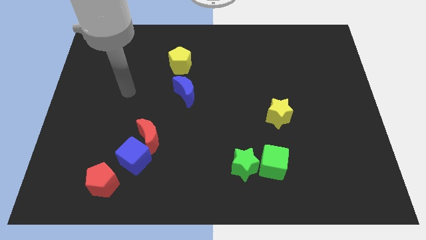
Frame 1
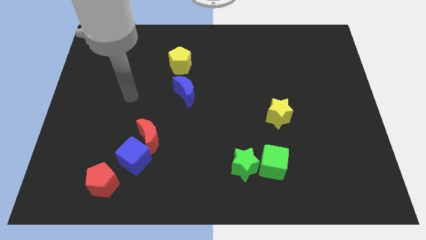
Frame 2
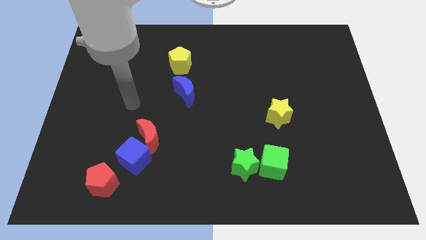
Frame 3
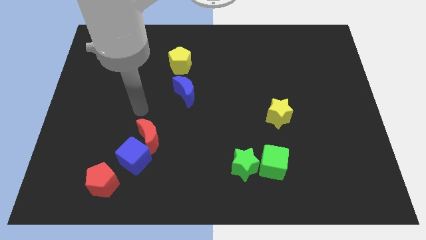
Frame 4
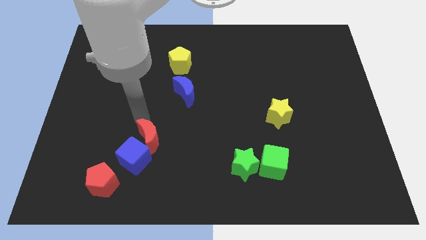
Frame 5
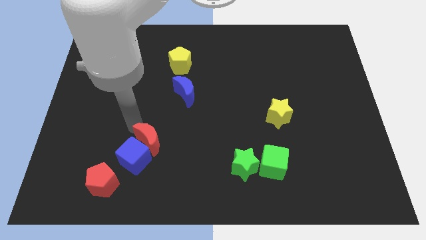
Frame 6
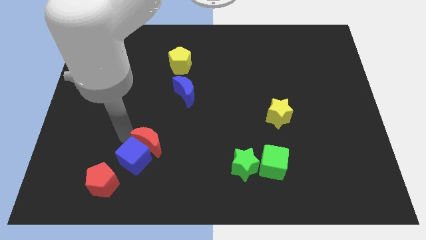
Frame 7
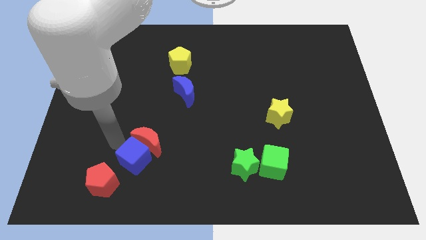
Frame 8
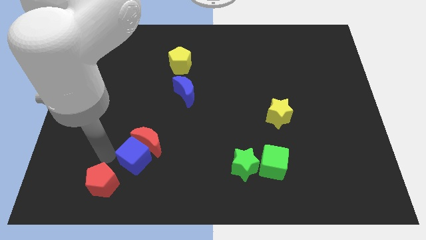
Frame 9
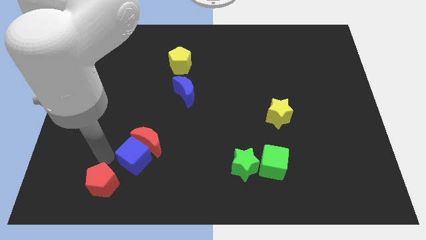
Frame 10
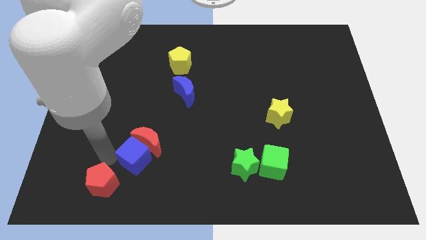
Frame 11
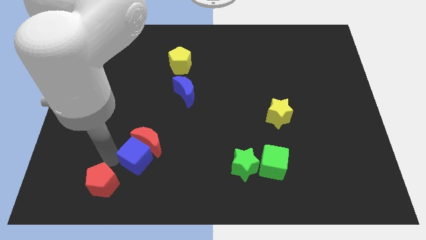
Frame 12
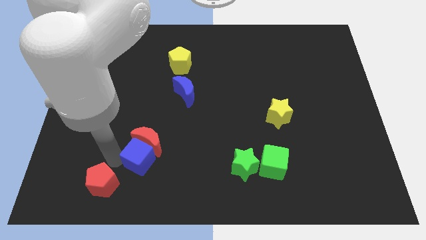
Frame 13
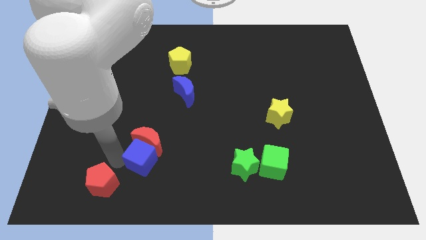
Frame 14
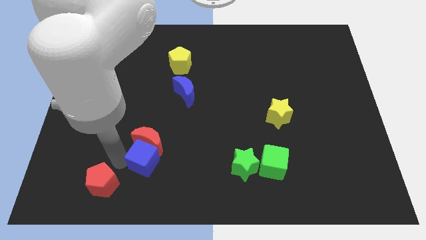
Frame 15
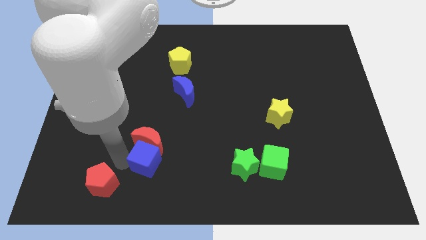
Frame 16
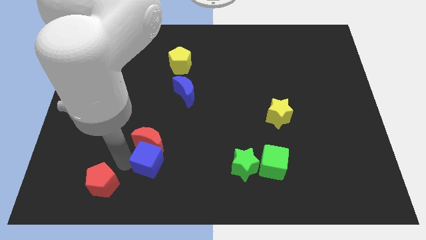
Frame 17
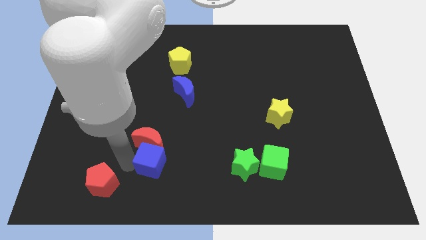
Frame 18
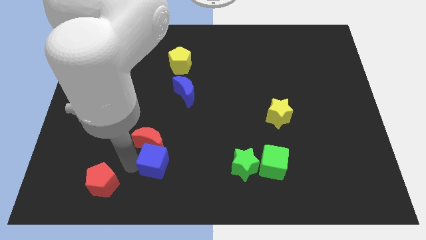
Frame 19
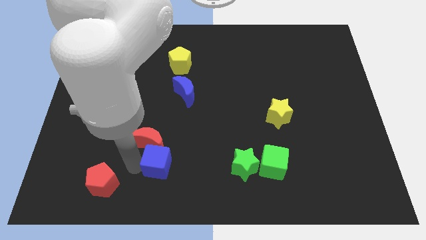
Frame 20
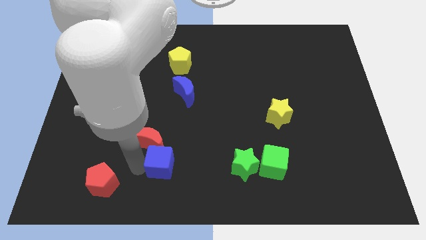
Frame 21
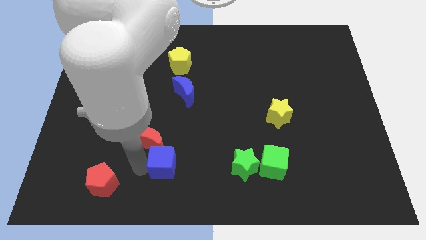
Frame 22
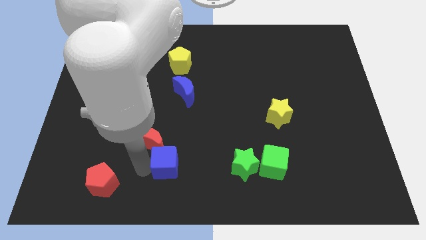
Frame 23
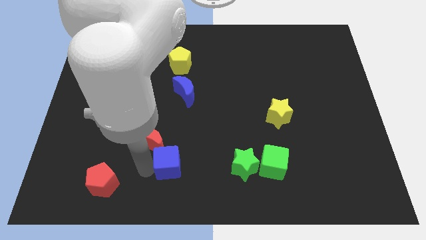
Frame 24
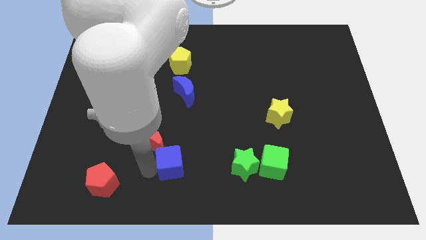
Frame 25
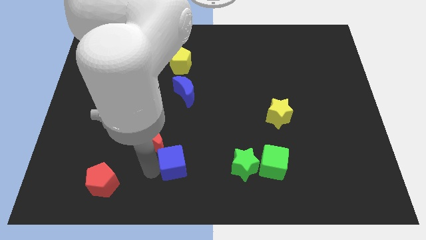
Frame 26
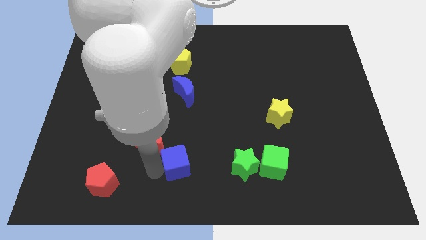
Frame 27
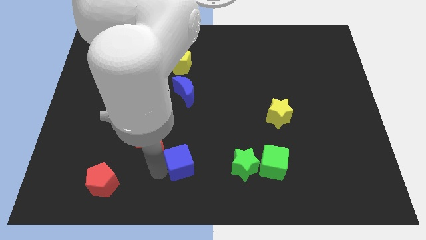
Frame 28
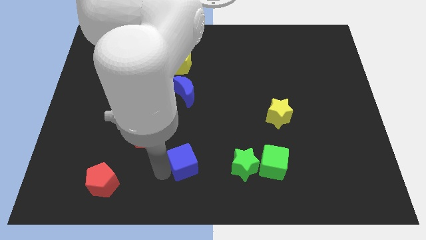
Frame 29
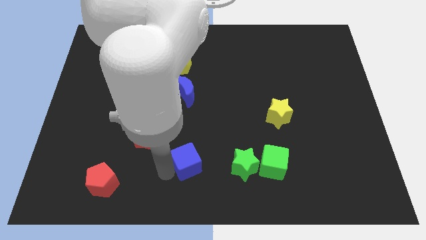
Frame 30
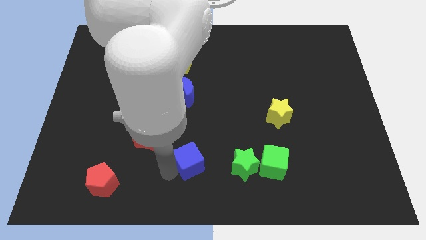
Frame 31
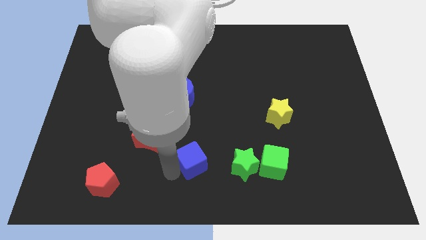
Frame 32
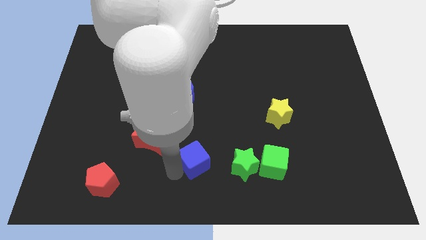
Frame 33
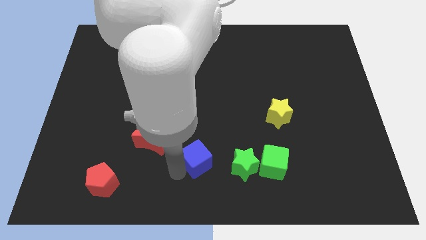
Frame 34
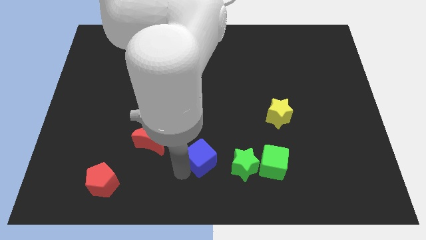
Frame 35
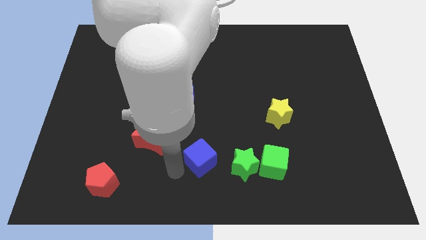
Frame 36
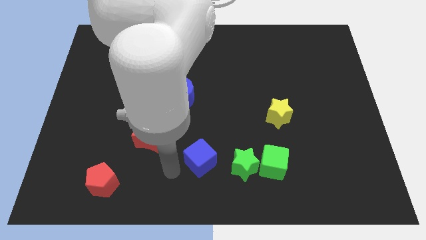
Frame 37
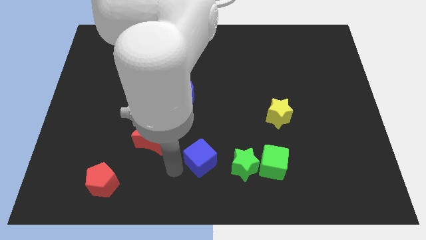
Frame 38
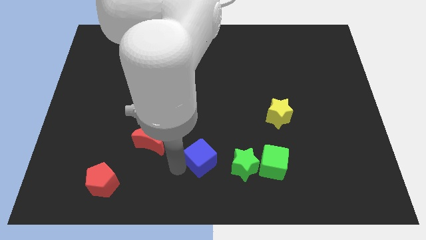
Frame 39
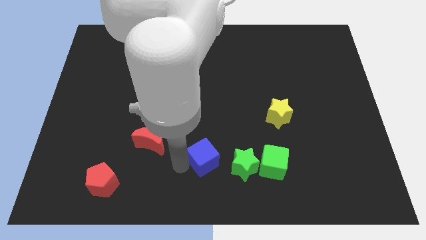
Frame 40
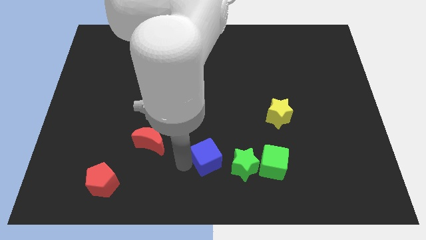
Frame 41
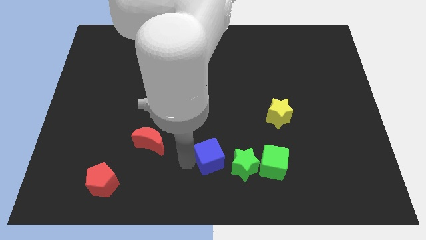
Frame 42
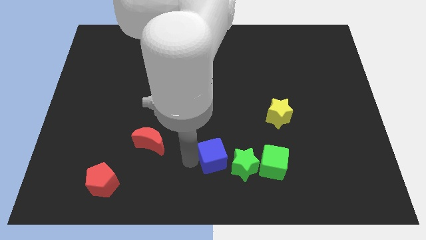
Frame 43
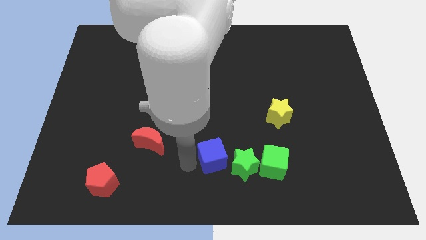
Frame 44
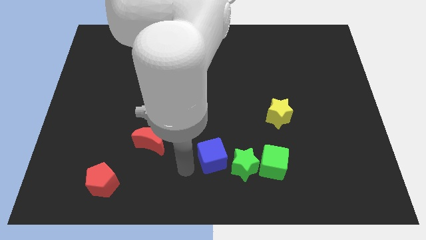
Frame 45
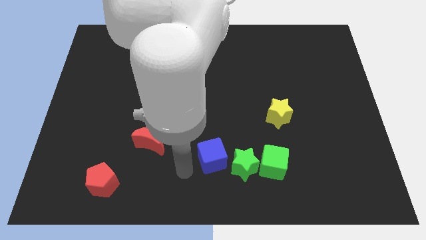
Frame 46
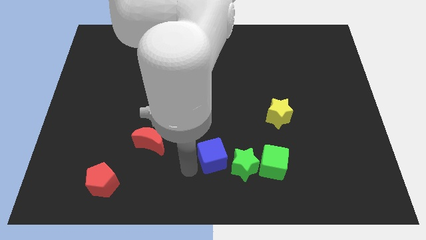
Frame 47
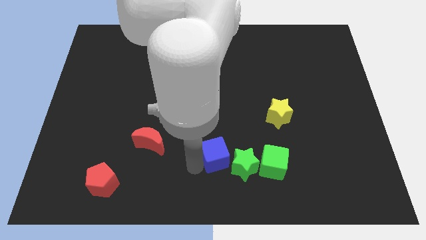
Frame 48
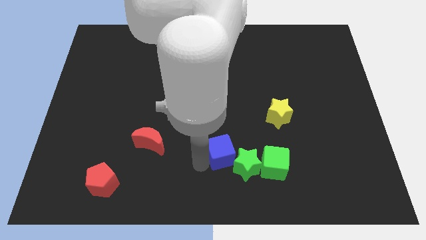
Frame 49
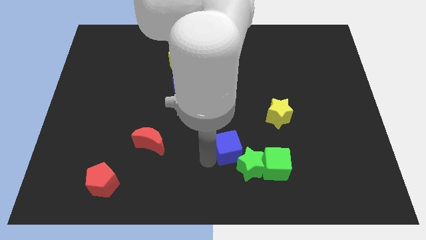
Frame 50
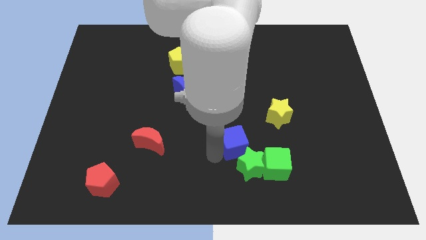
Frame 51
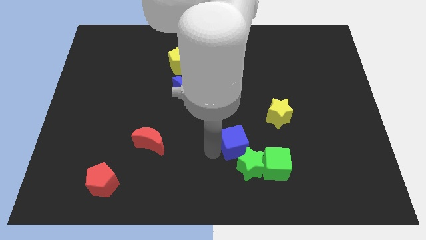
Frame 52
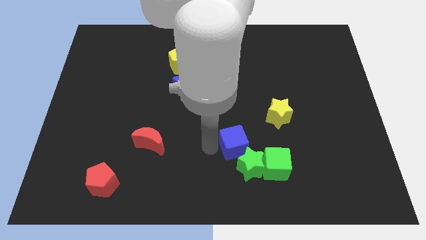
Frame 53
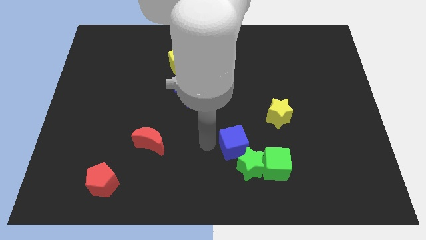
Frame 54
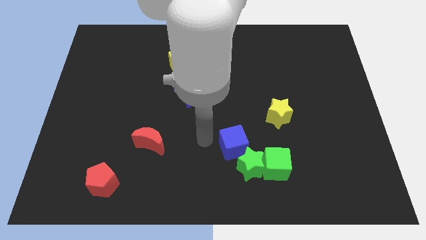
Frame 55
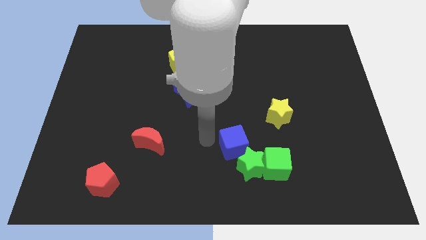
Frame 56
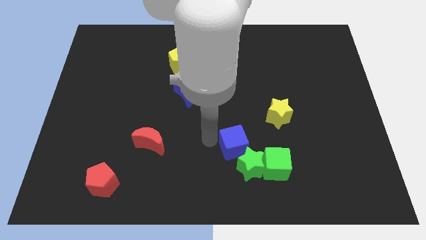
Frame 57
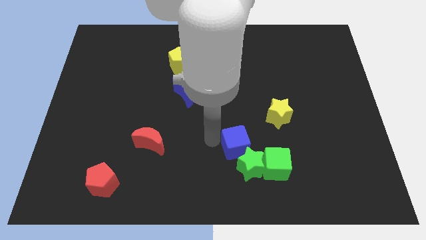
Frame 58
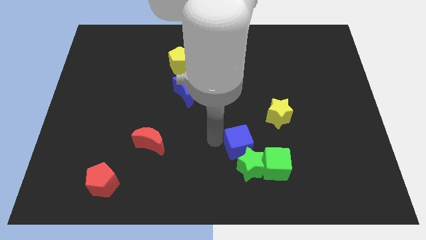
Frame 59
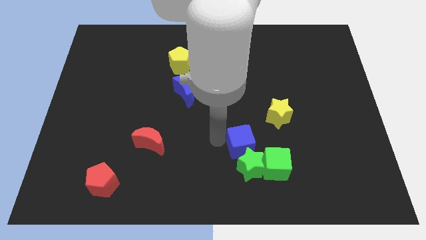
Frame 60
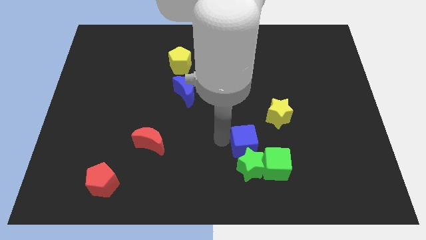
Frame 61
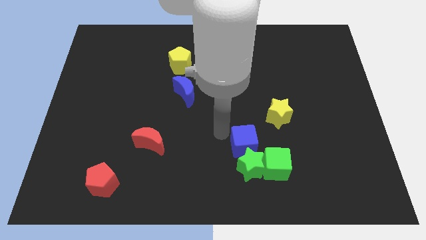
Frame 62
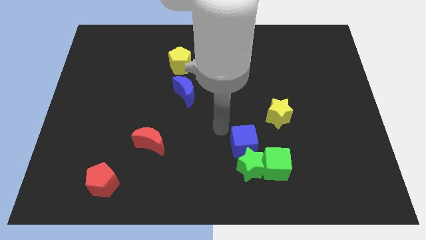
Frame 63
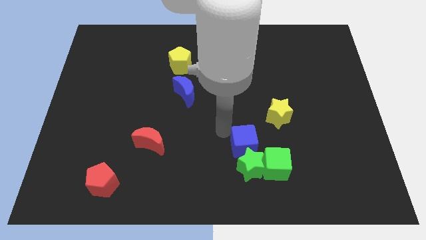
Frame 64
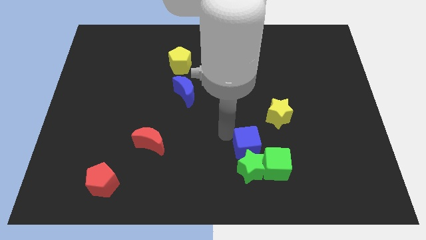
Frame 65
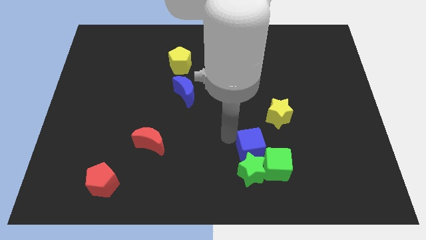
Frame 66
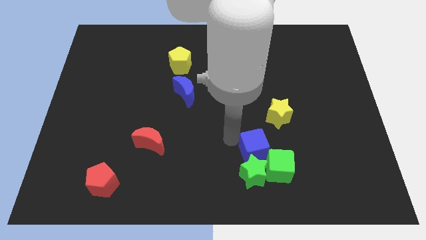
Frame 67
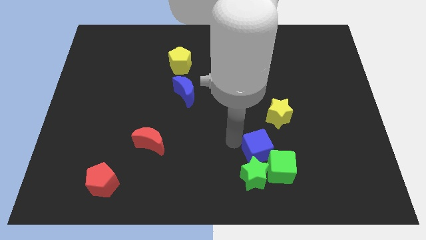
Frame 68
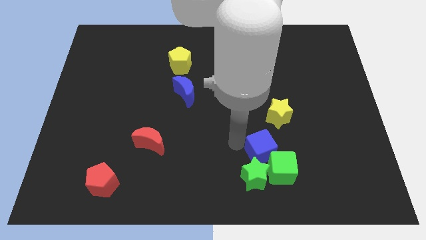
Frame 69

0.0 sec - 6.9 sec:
move the blue cube towards the green cube

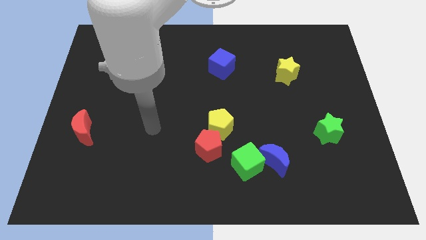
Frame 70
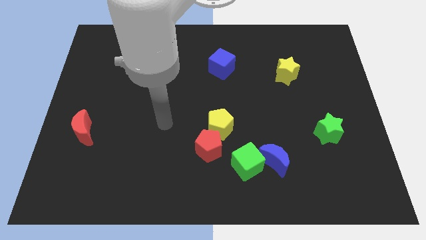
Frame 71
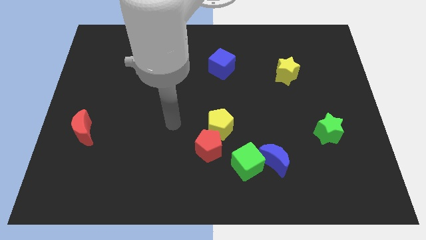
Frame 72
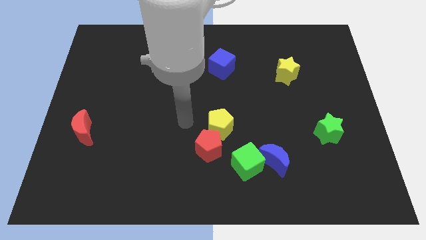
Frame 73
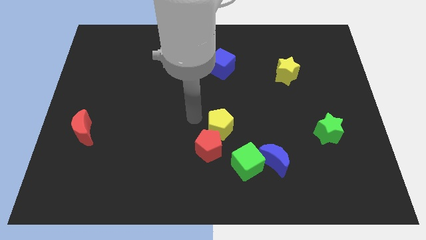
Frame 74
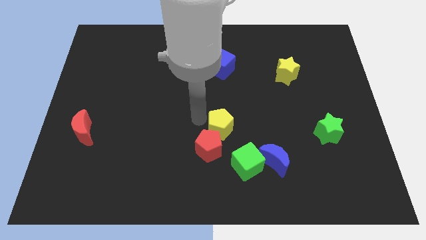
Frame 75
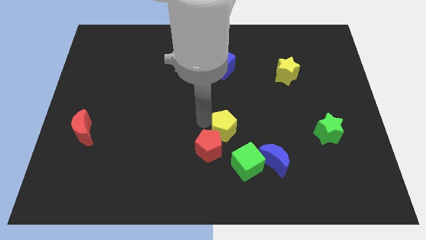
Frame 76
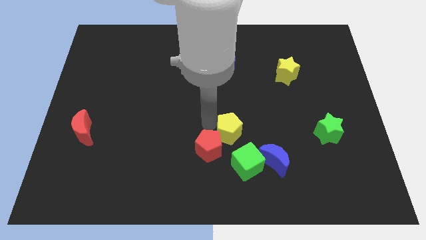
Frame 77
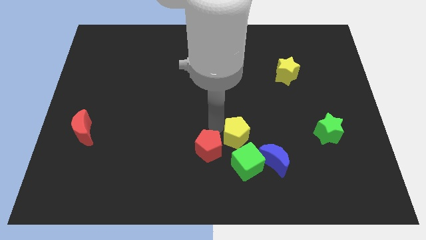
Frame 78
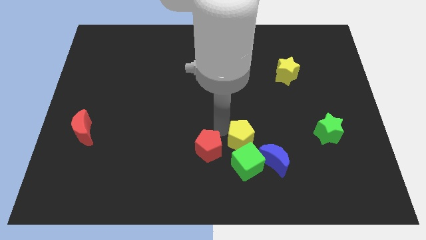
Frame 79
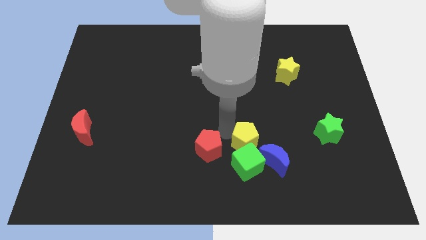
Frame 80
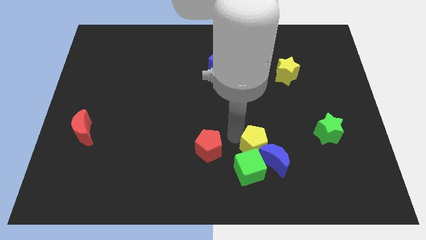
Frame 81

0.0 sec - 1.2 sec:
put the yellow pentagon to the blue moon
